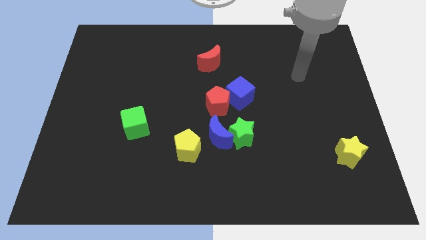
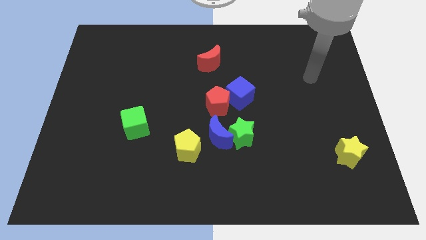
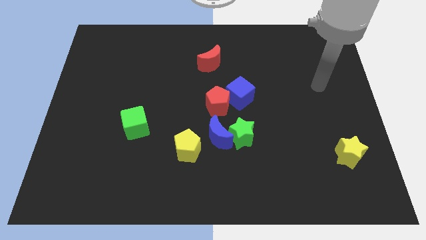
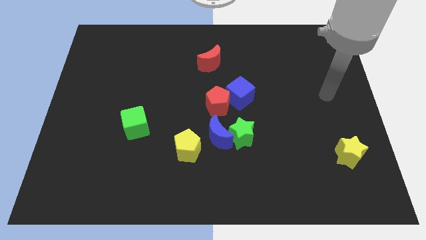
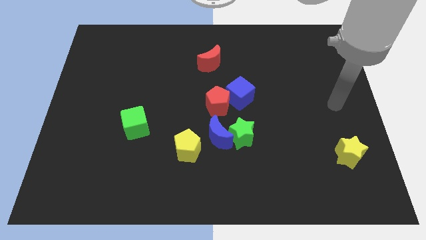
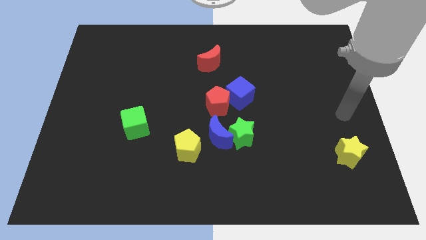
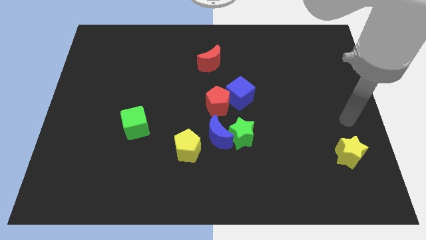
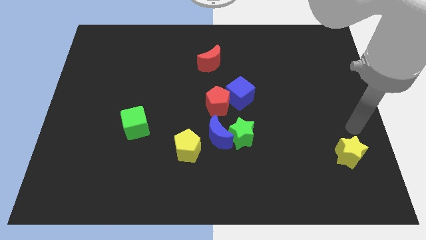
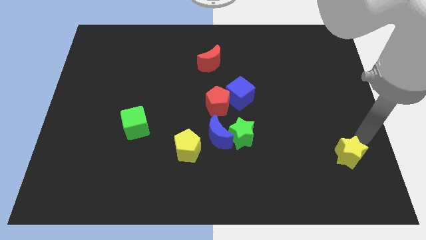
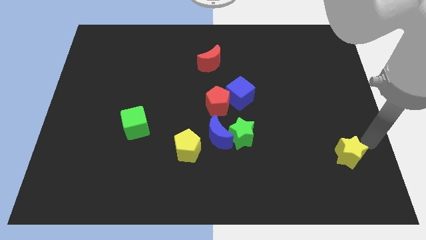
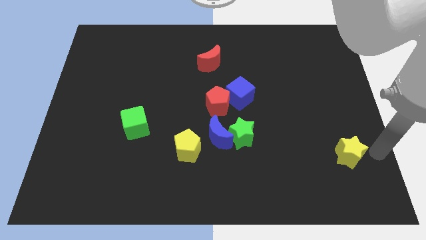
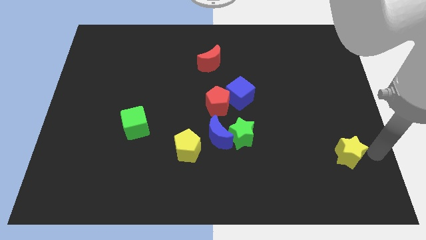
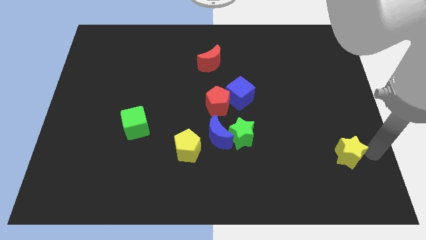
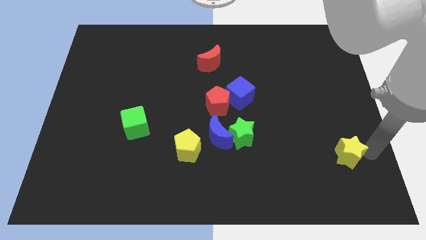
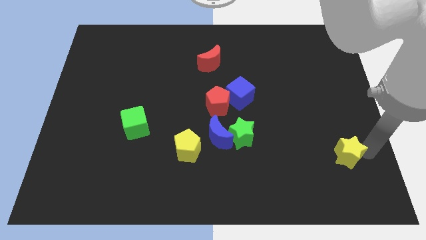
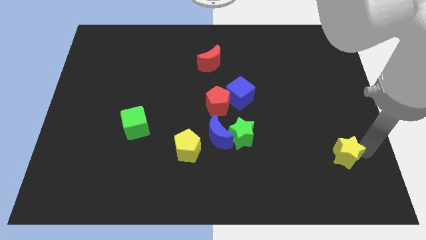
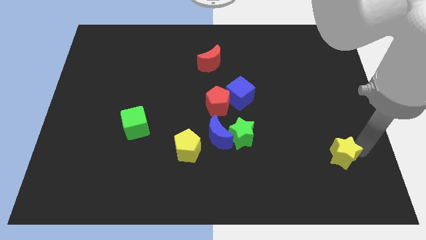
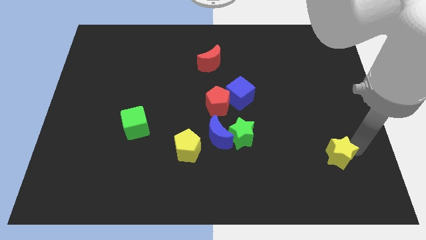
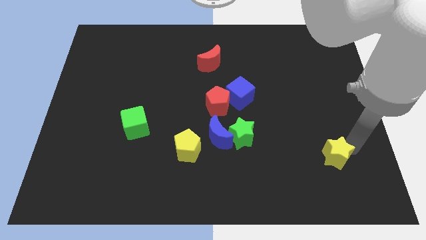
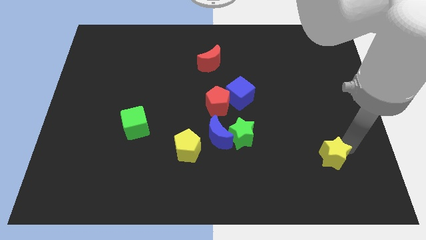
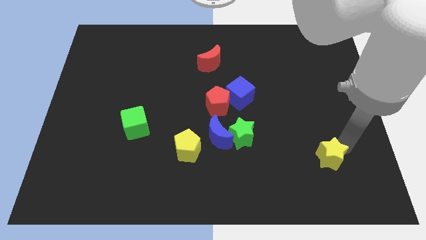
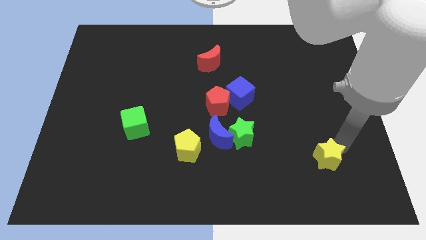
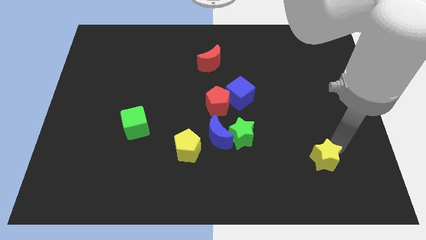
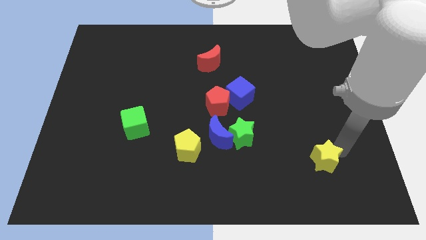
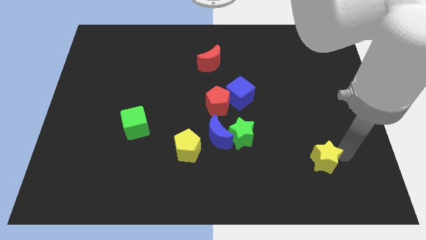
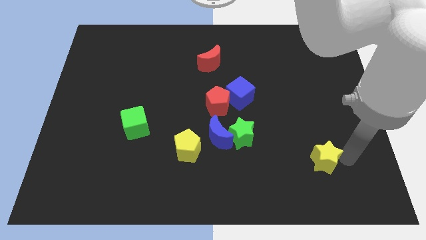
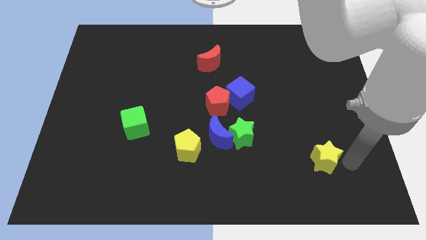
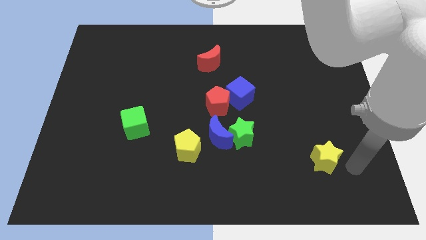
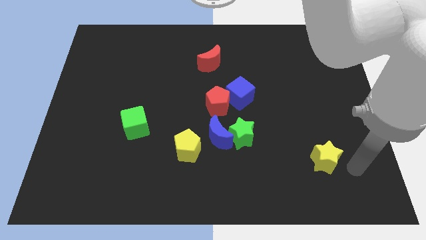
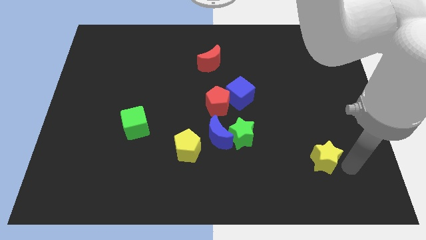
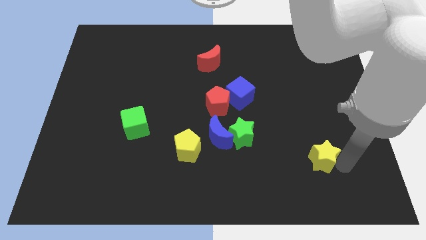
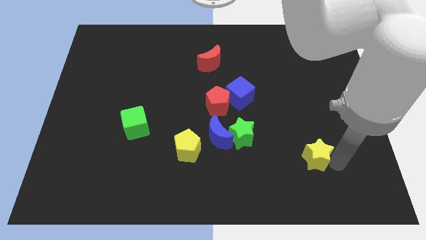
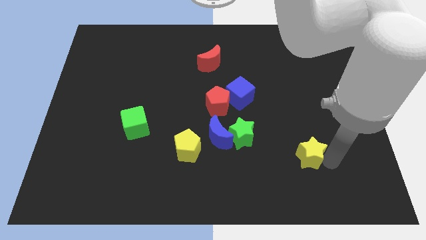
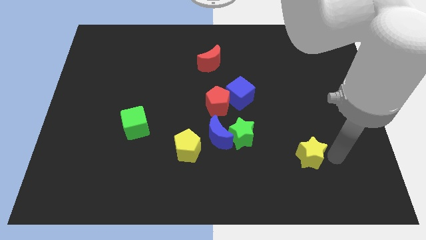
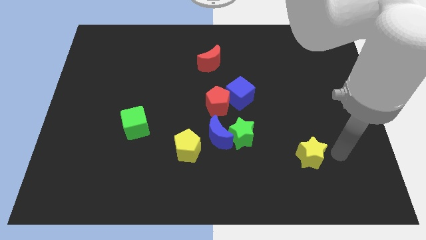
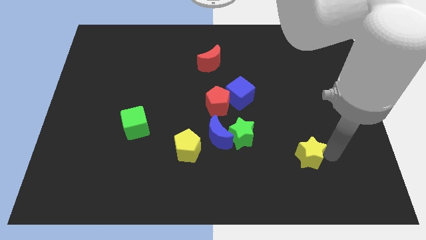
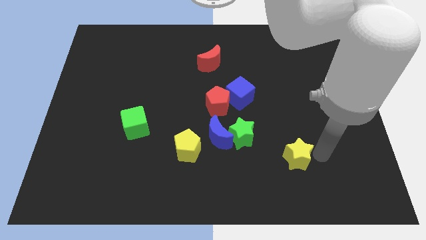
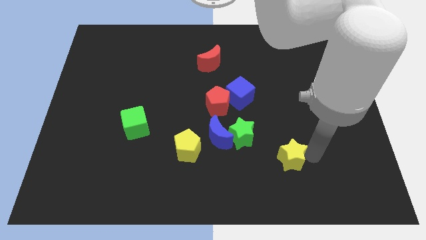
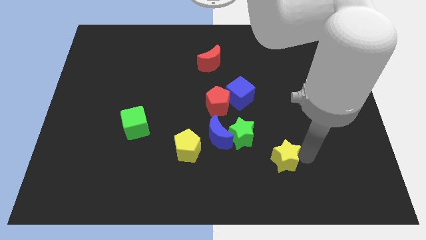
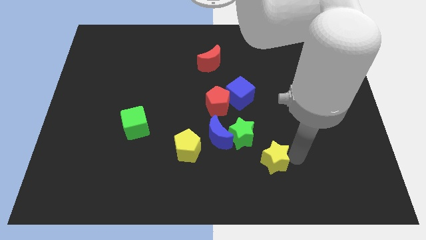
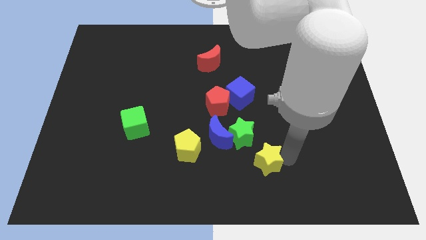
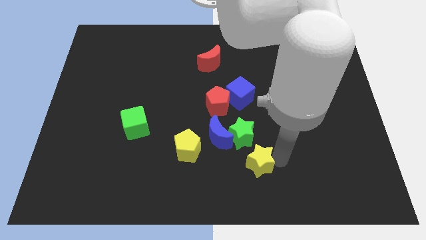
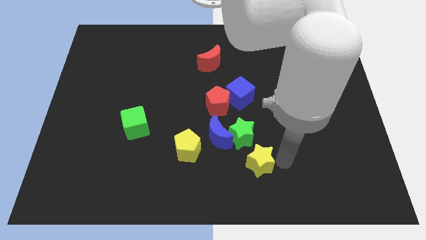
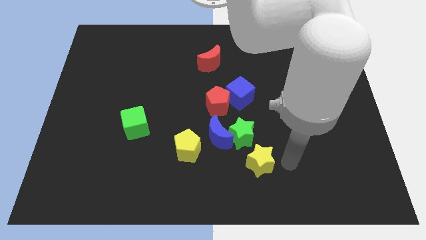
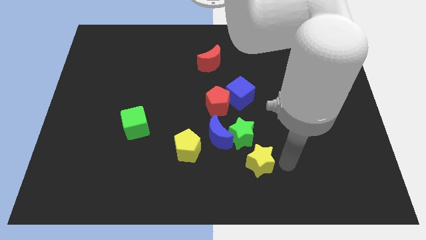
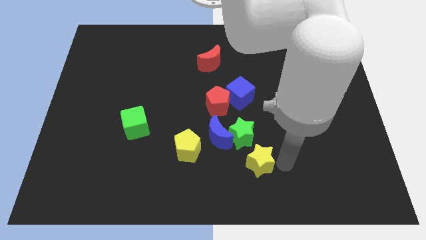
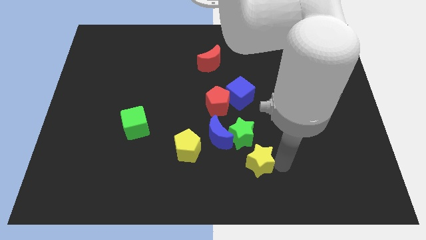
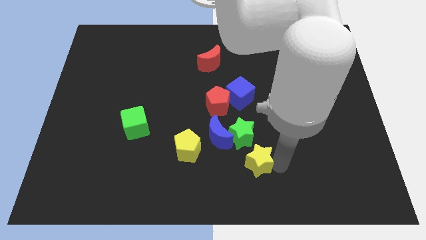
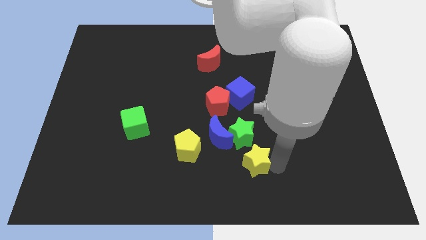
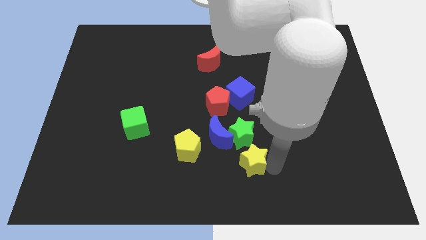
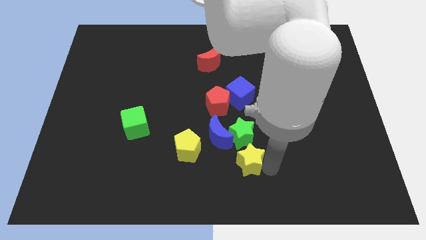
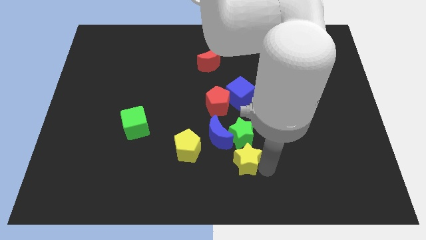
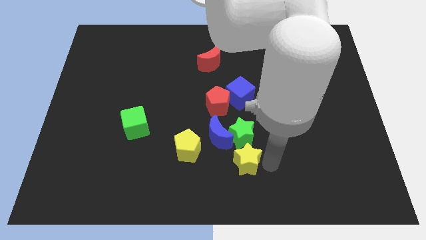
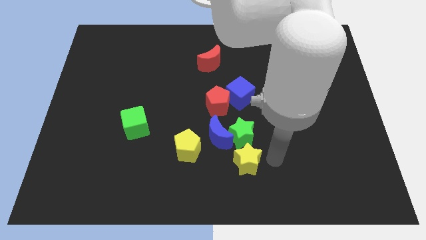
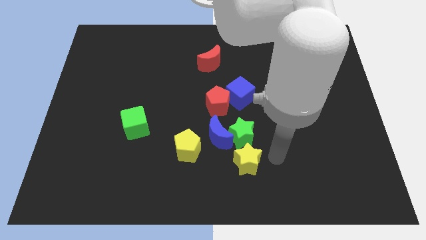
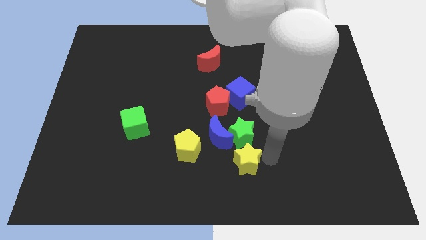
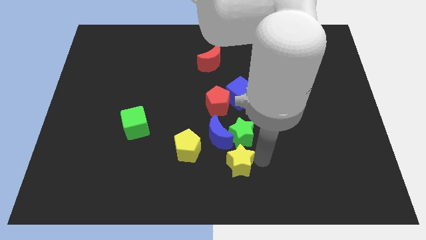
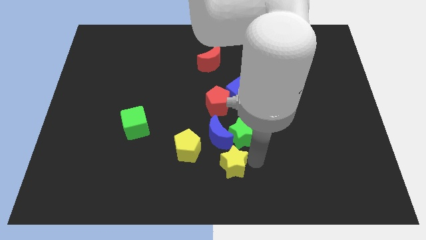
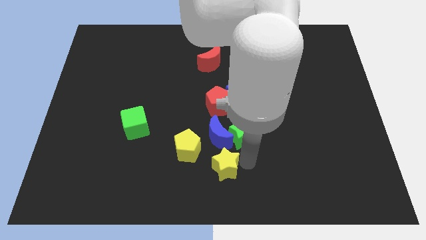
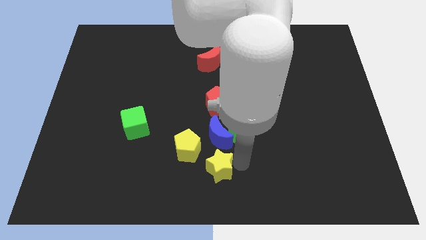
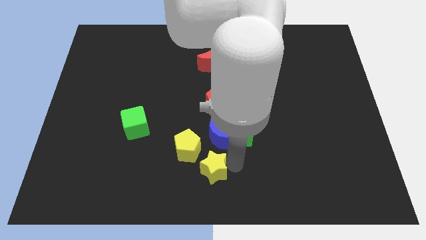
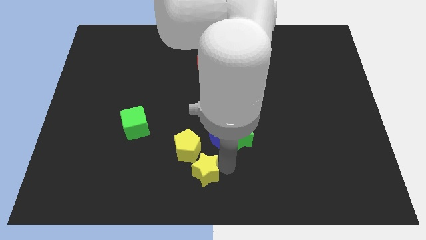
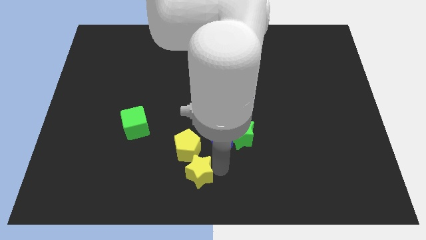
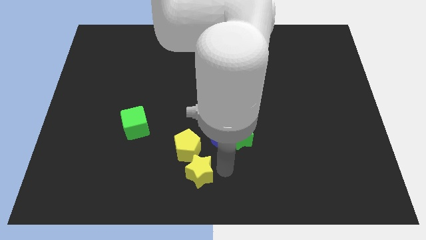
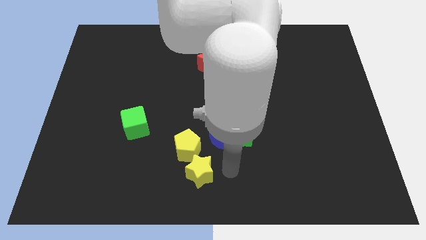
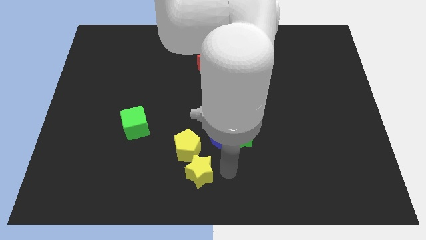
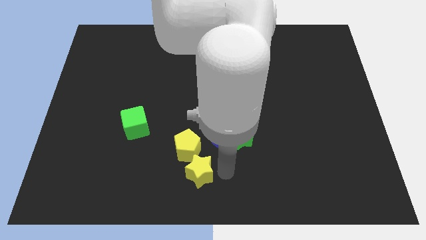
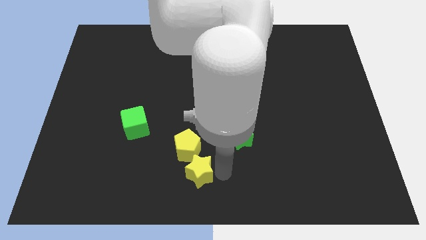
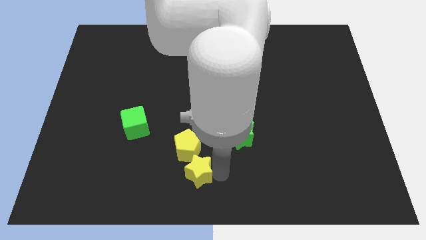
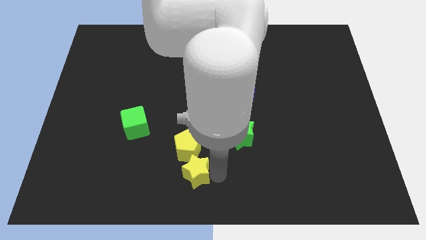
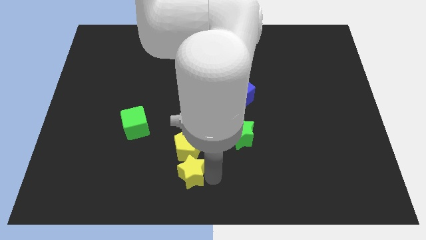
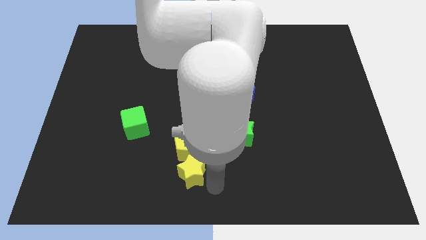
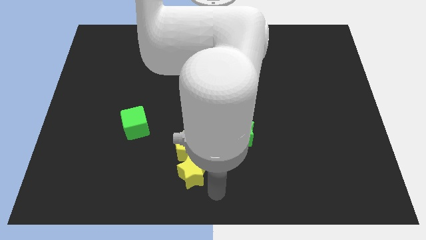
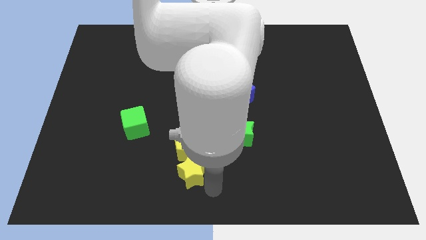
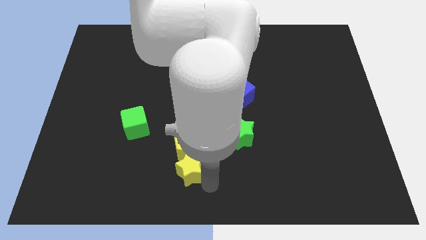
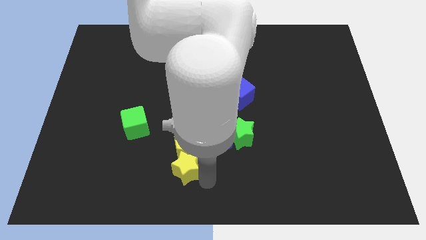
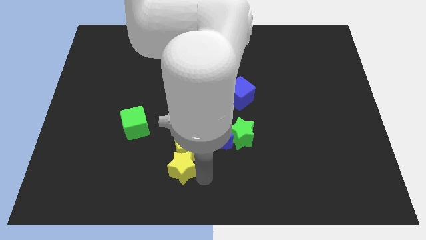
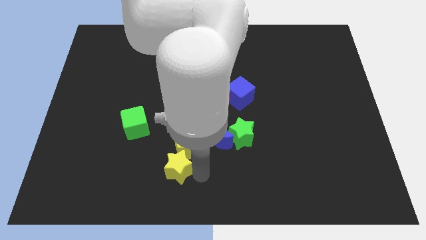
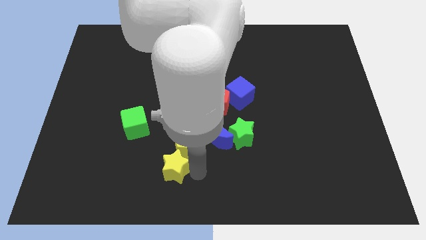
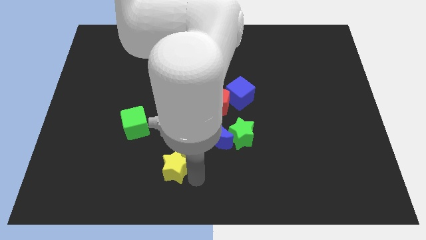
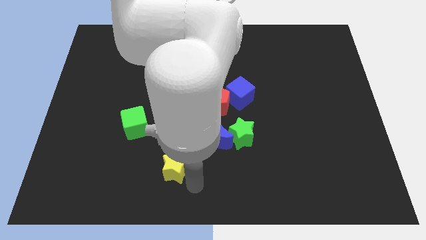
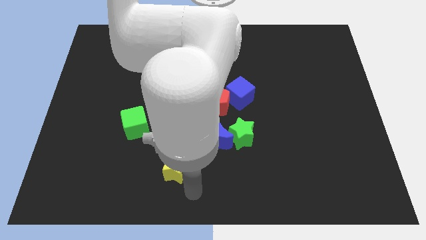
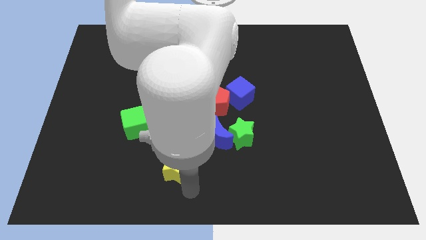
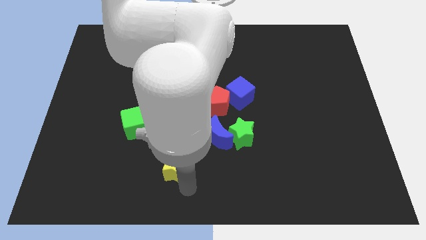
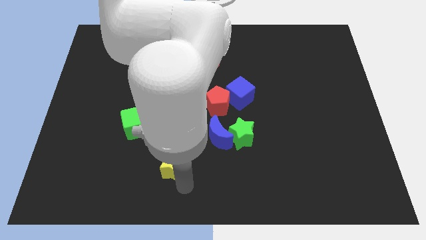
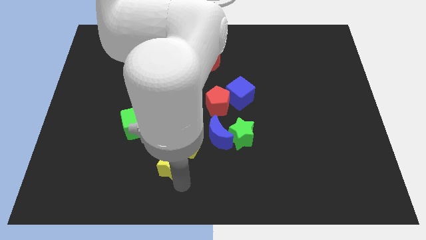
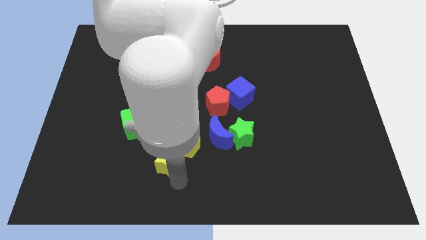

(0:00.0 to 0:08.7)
put the yellow star diagonally down and to the right of the green cube

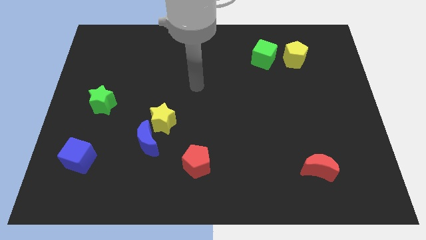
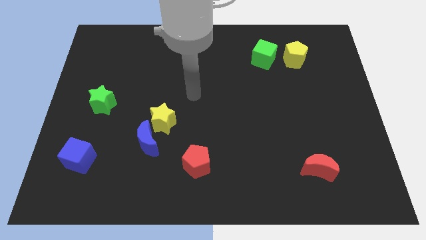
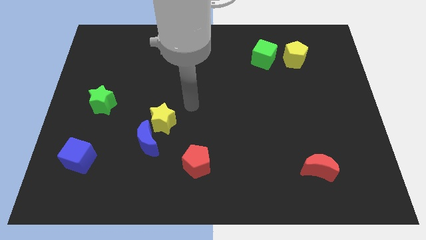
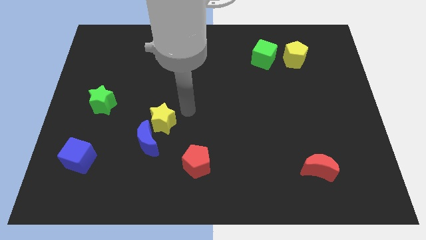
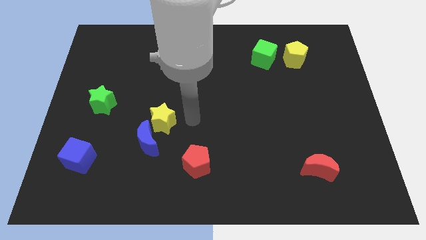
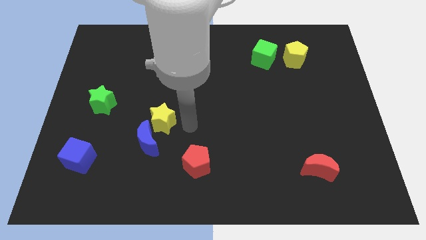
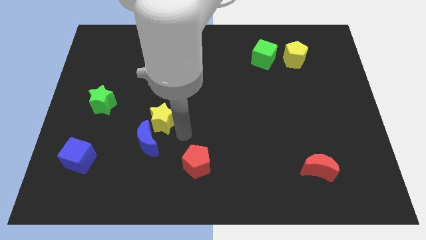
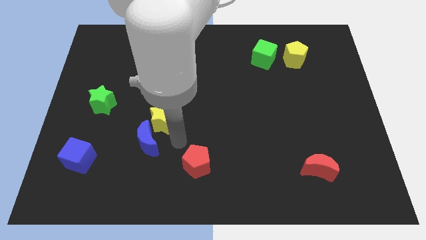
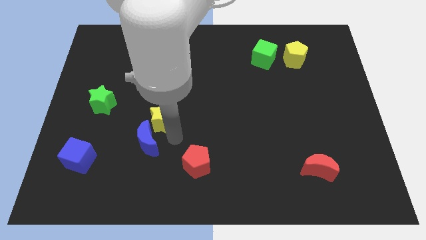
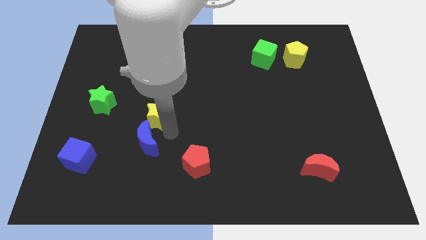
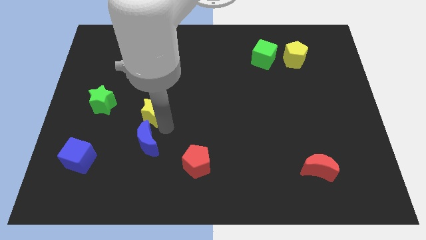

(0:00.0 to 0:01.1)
put the yellow star right of the green star
